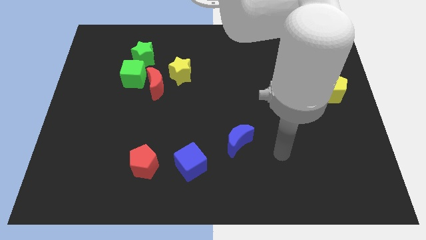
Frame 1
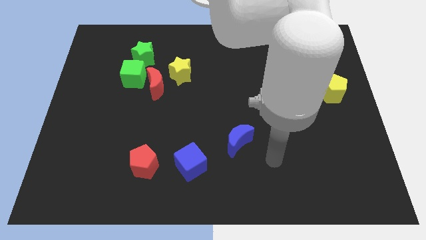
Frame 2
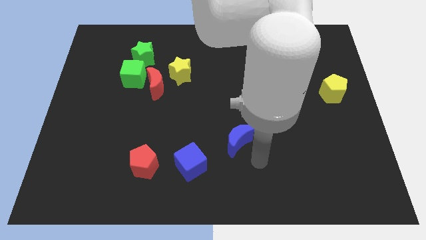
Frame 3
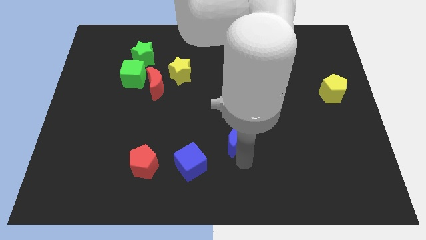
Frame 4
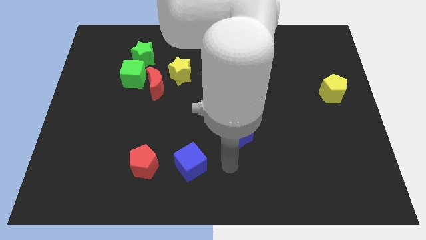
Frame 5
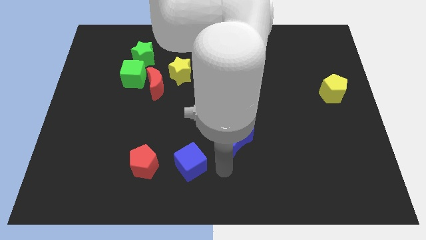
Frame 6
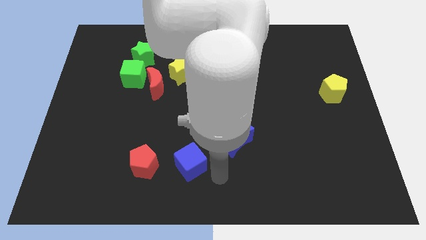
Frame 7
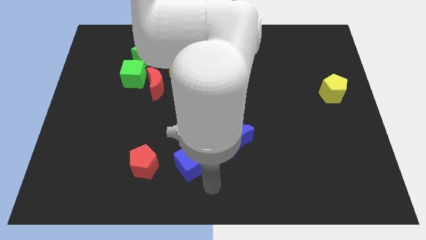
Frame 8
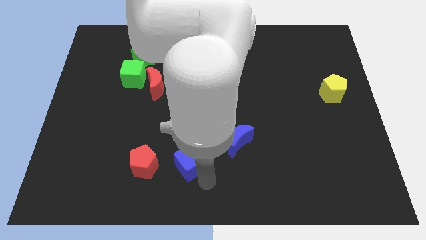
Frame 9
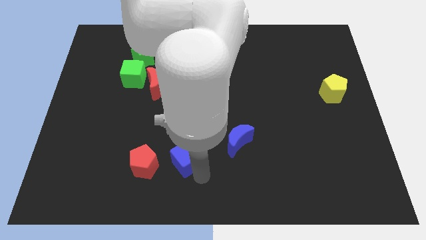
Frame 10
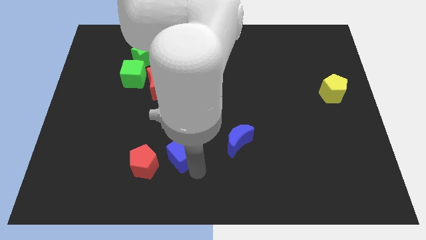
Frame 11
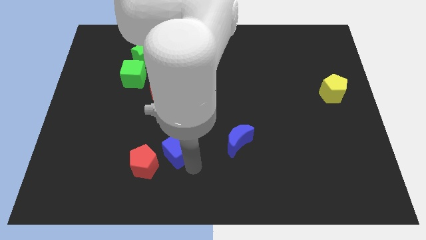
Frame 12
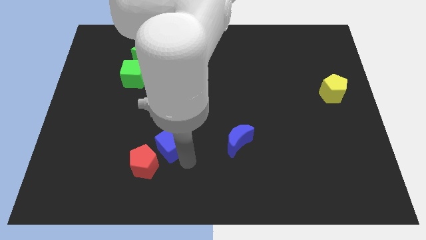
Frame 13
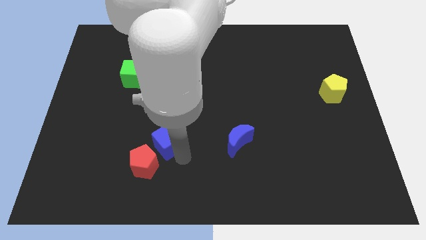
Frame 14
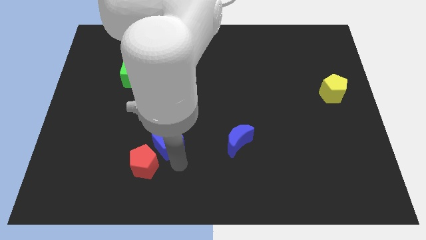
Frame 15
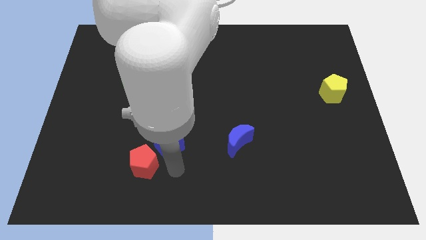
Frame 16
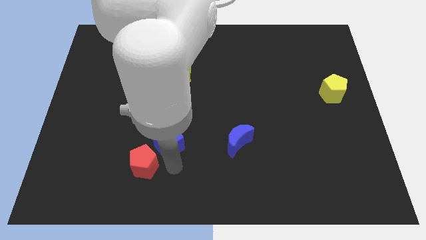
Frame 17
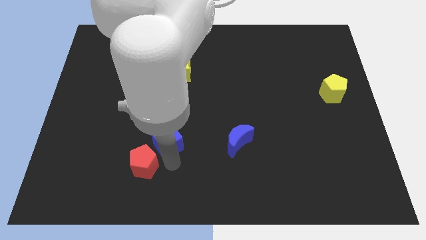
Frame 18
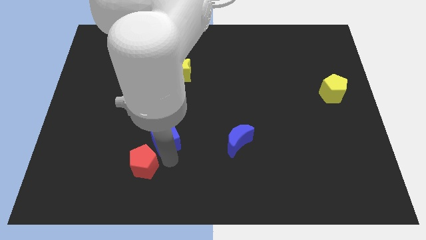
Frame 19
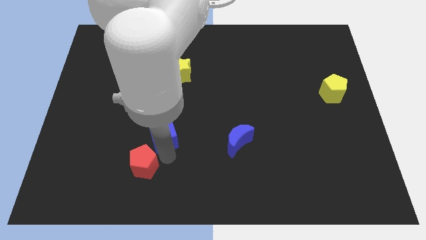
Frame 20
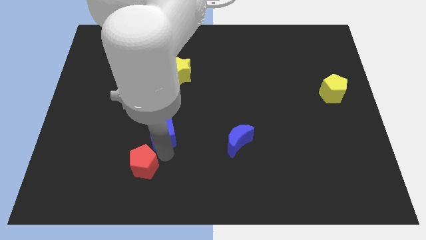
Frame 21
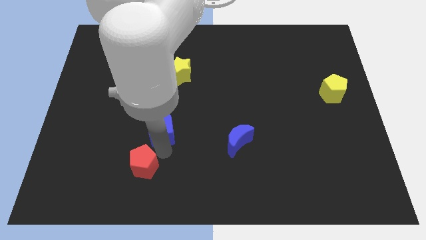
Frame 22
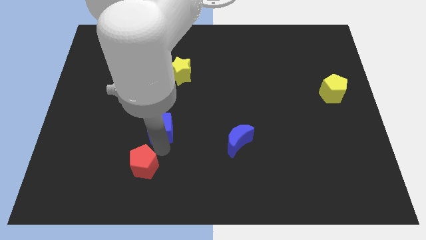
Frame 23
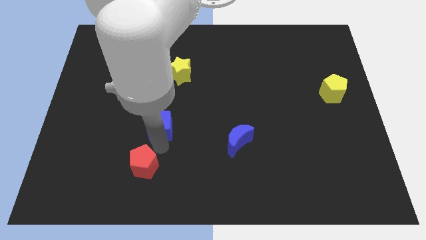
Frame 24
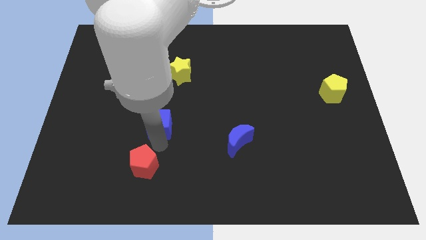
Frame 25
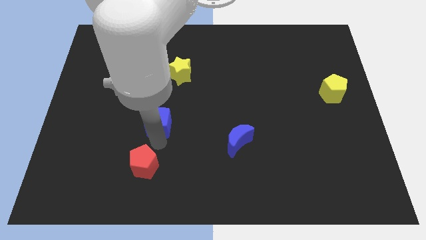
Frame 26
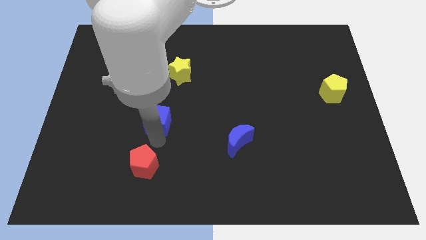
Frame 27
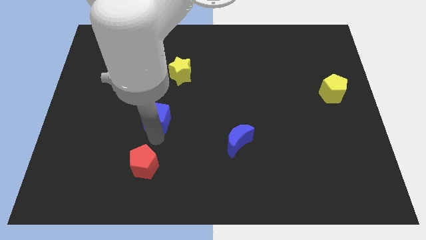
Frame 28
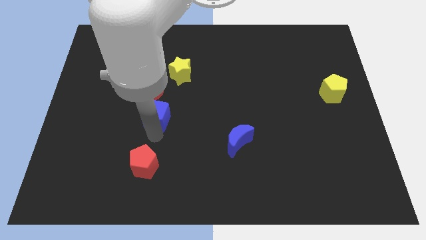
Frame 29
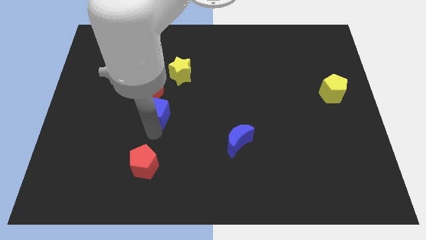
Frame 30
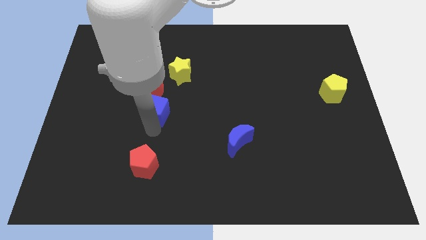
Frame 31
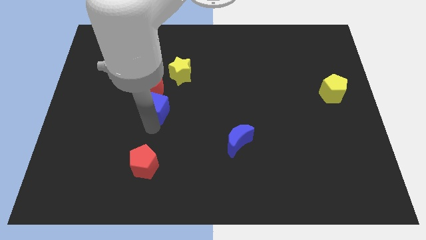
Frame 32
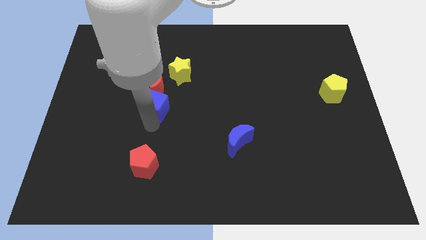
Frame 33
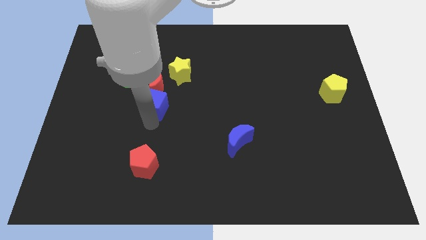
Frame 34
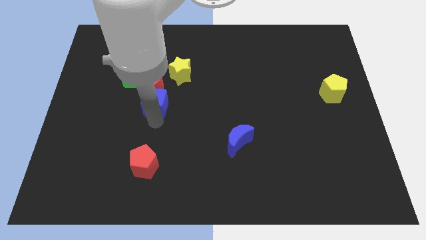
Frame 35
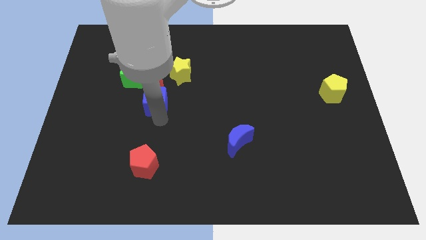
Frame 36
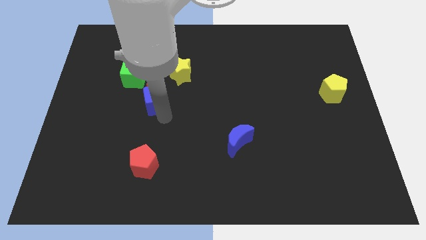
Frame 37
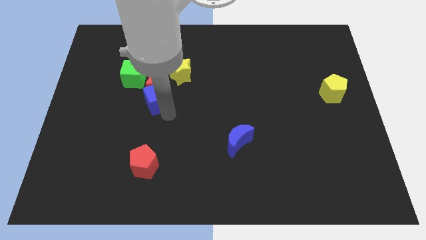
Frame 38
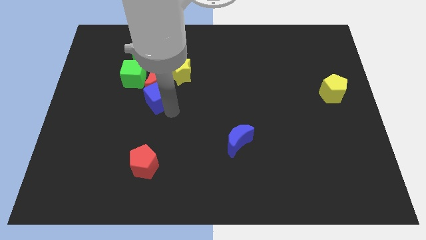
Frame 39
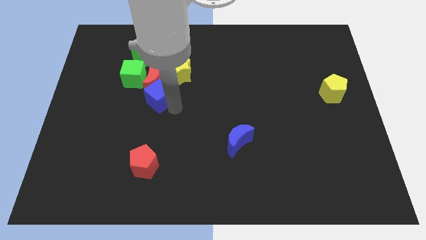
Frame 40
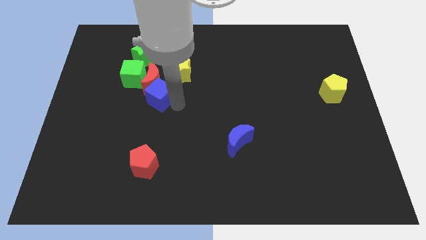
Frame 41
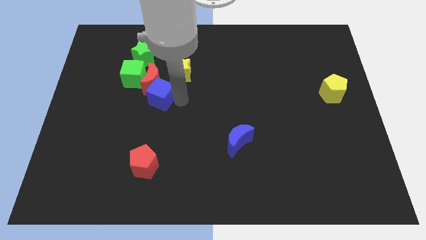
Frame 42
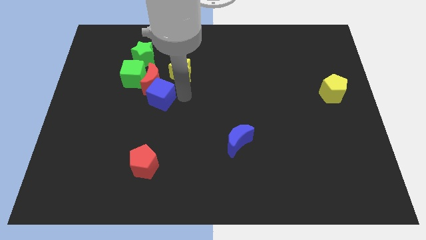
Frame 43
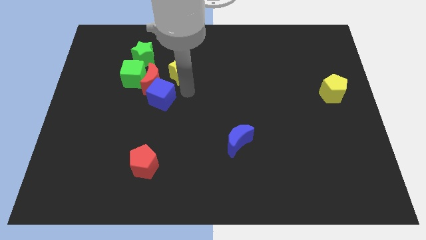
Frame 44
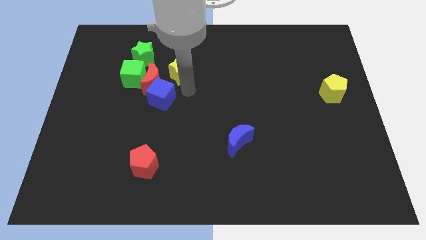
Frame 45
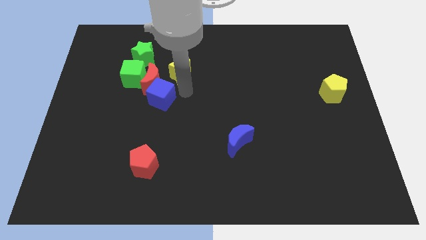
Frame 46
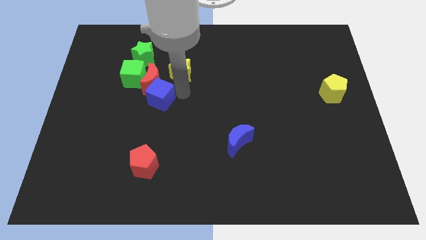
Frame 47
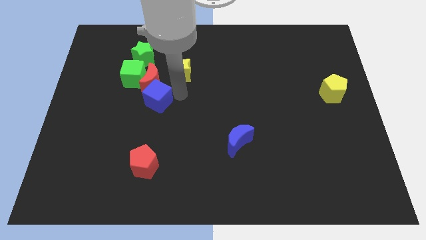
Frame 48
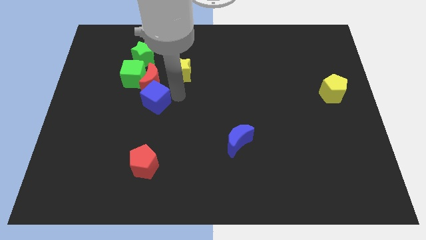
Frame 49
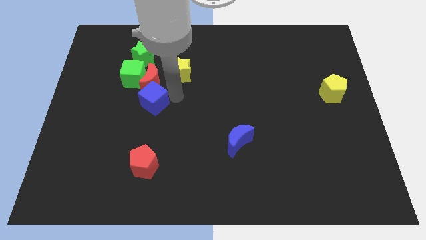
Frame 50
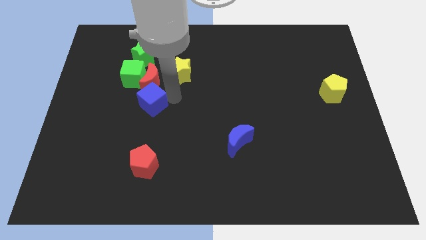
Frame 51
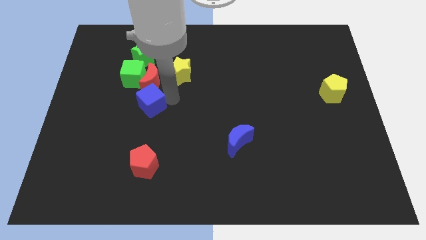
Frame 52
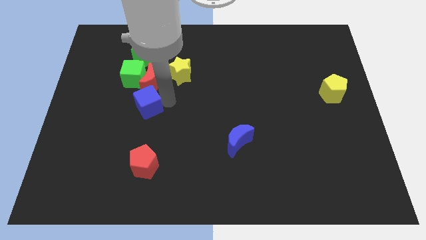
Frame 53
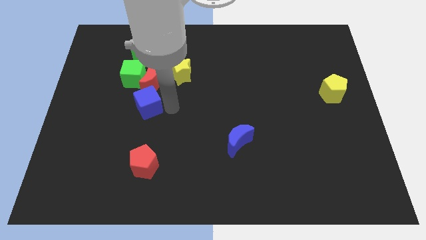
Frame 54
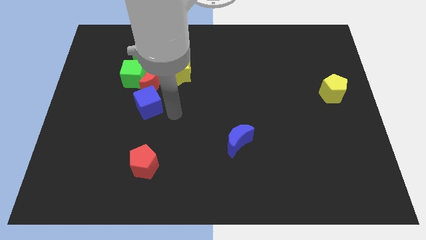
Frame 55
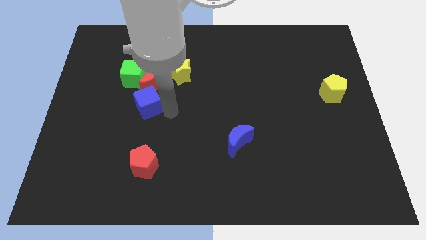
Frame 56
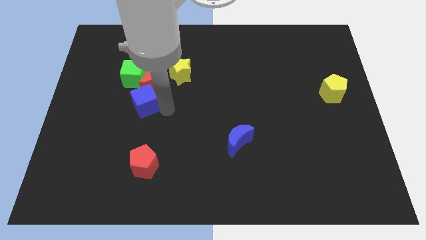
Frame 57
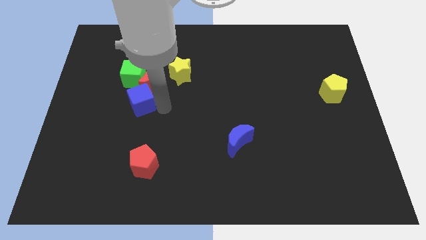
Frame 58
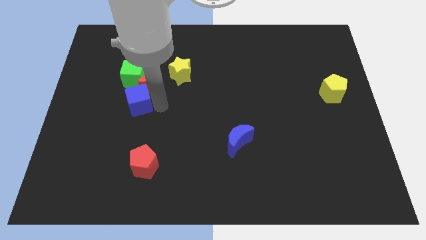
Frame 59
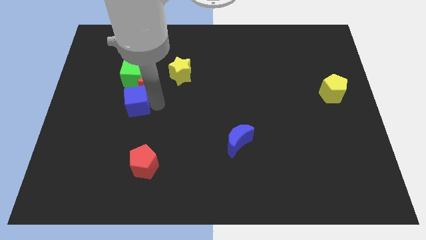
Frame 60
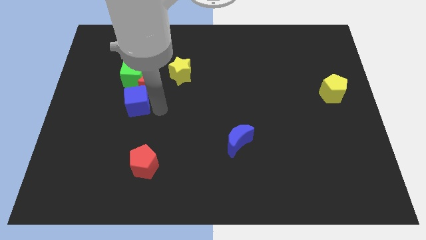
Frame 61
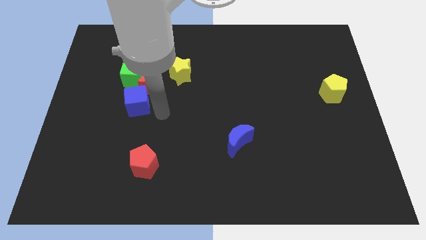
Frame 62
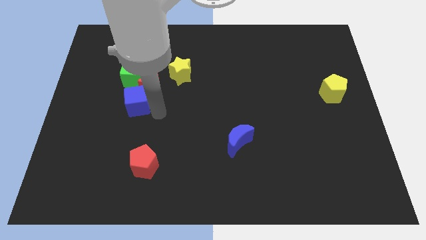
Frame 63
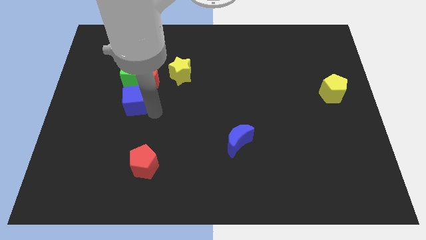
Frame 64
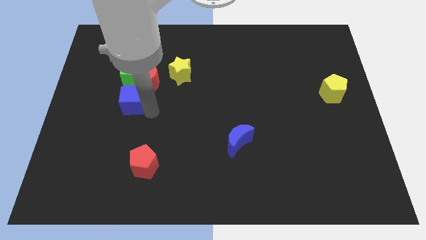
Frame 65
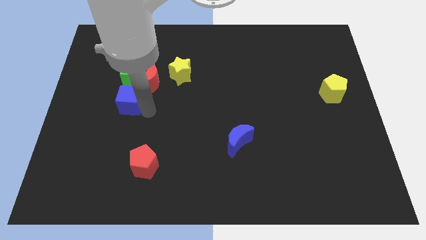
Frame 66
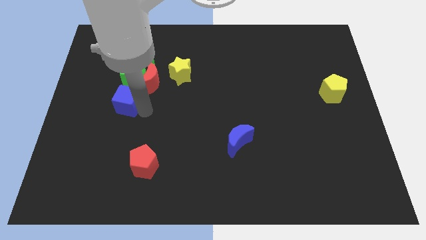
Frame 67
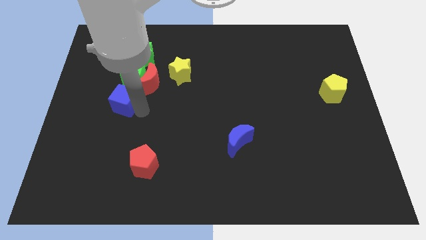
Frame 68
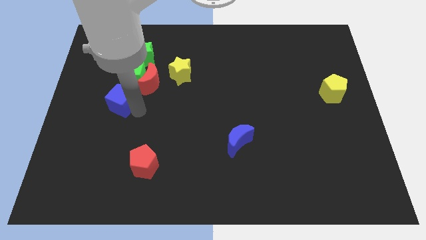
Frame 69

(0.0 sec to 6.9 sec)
move the blue cube diagonally down and to the left of the green cube
